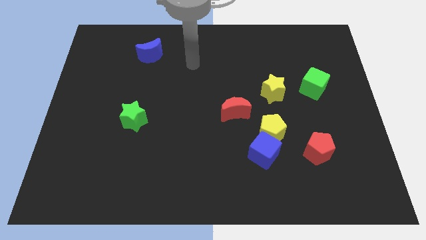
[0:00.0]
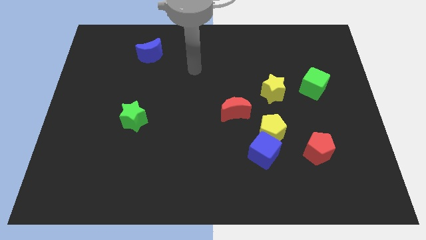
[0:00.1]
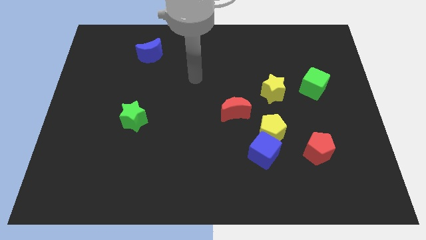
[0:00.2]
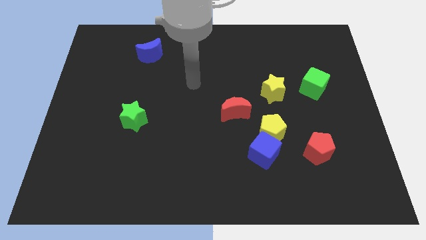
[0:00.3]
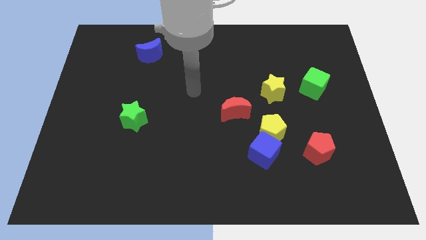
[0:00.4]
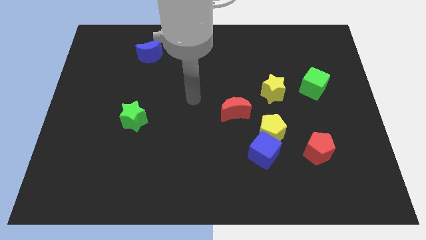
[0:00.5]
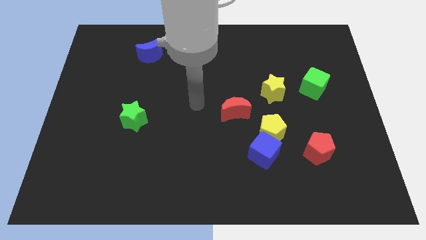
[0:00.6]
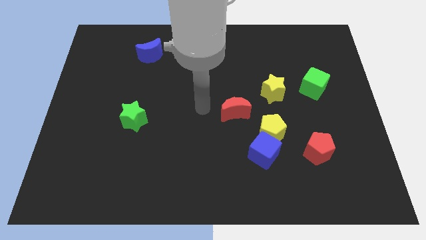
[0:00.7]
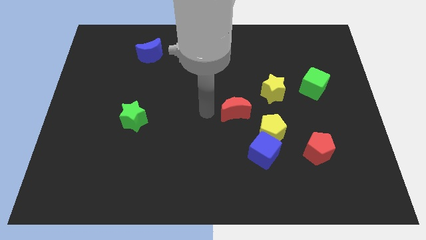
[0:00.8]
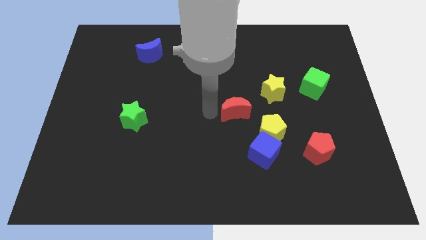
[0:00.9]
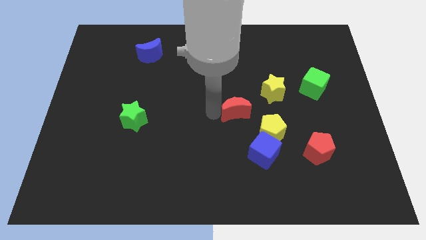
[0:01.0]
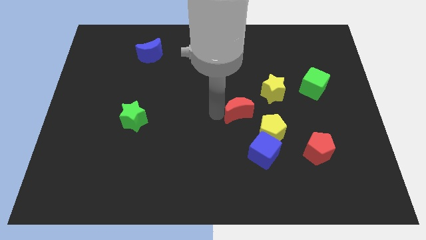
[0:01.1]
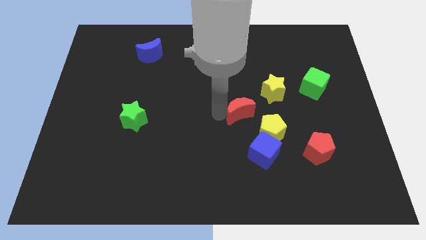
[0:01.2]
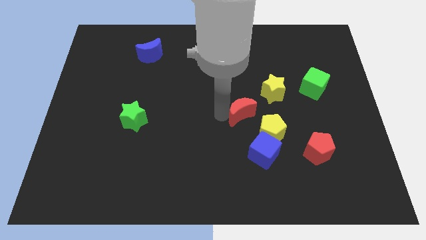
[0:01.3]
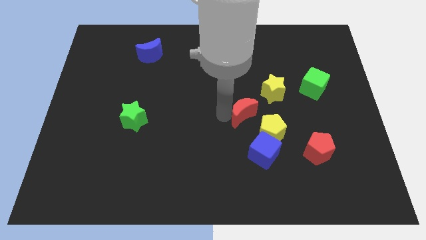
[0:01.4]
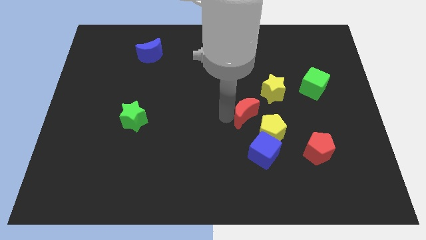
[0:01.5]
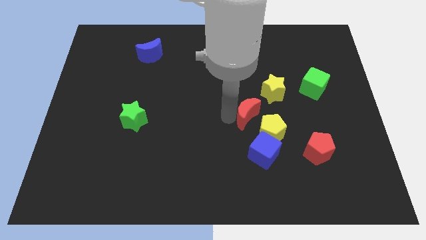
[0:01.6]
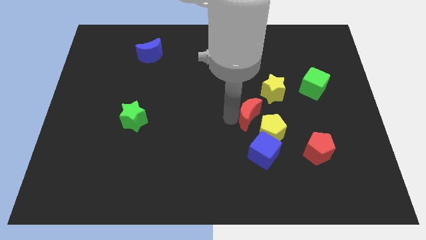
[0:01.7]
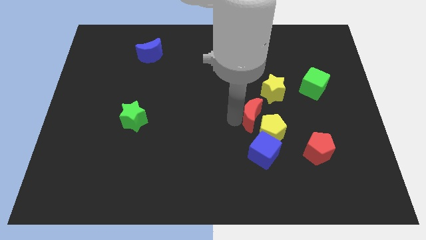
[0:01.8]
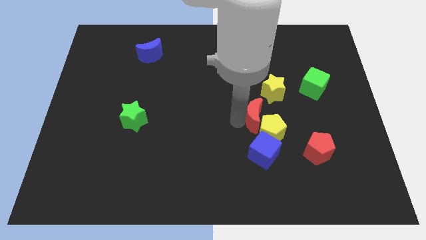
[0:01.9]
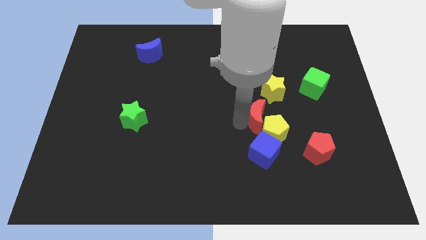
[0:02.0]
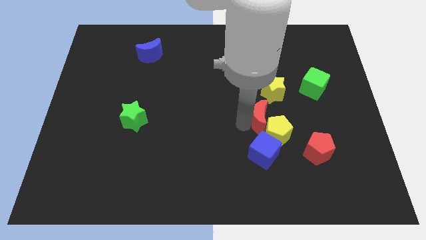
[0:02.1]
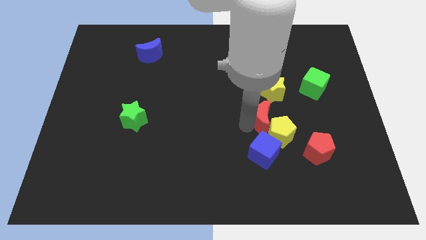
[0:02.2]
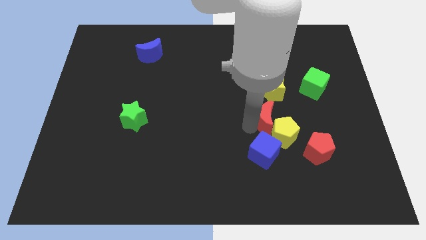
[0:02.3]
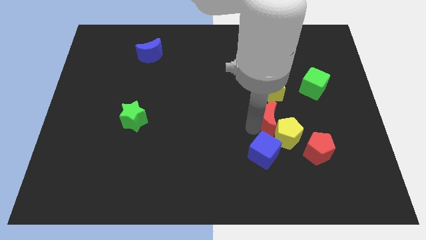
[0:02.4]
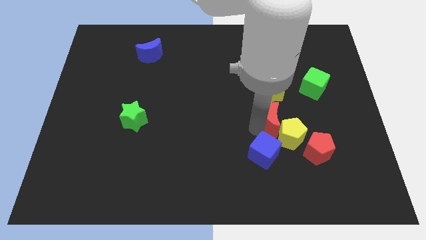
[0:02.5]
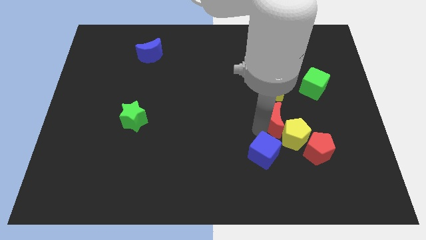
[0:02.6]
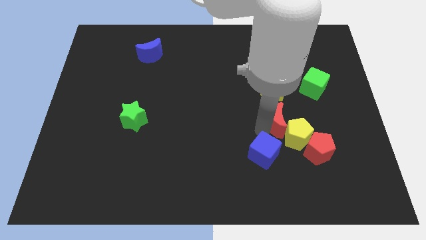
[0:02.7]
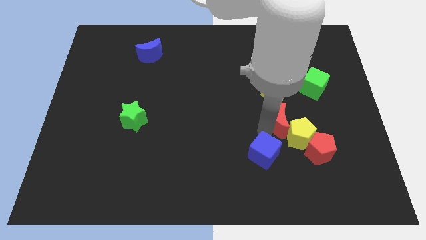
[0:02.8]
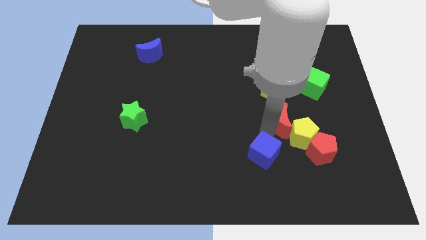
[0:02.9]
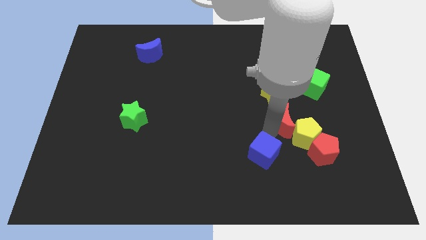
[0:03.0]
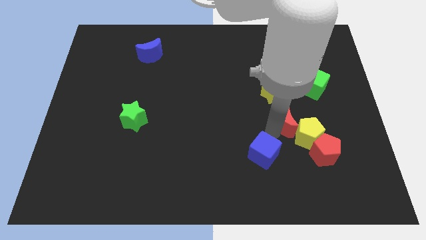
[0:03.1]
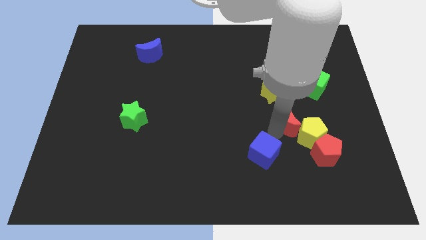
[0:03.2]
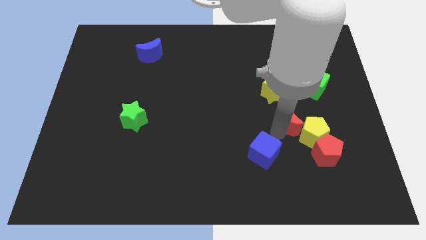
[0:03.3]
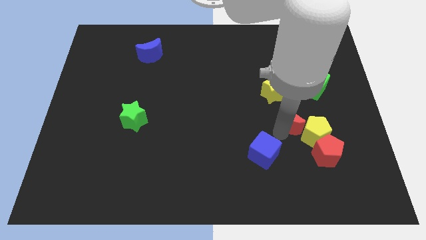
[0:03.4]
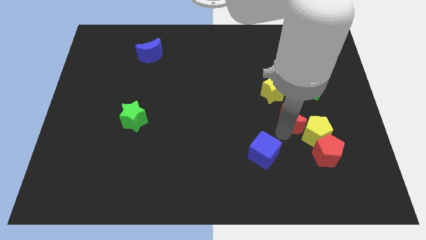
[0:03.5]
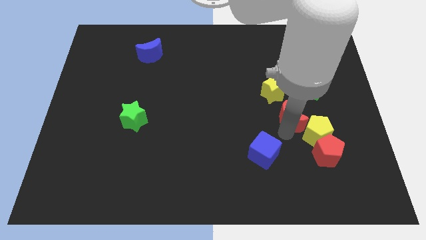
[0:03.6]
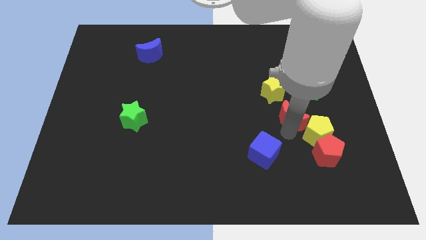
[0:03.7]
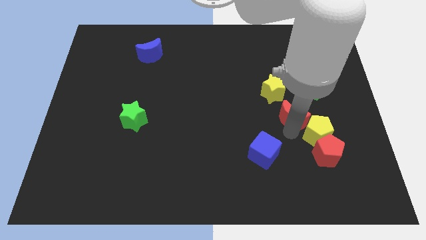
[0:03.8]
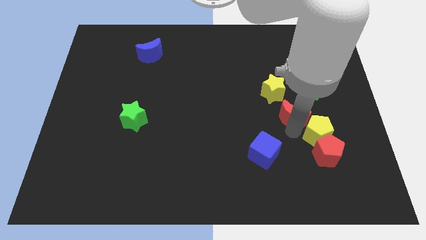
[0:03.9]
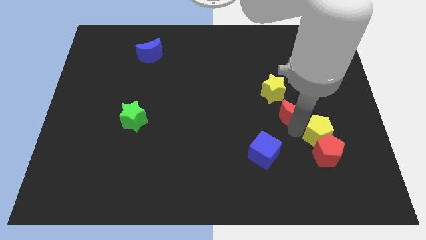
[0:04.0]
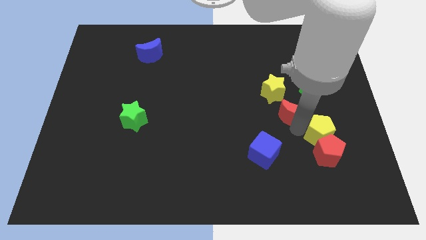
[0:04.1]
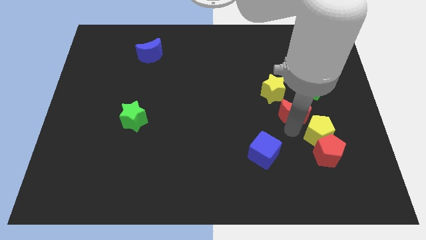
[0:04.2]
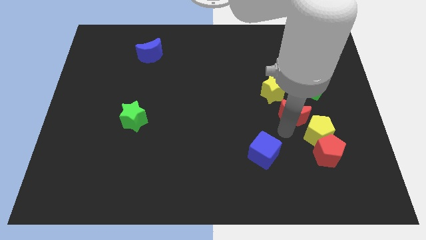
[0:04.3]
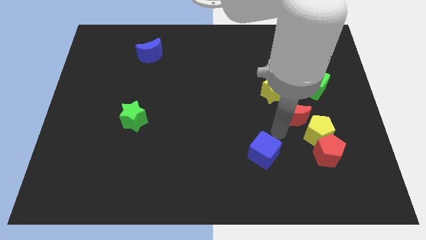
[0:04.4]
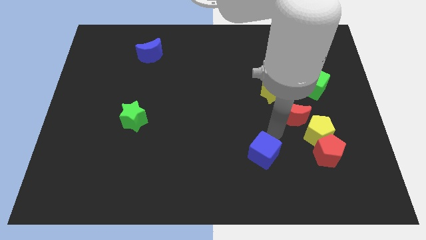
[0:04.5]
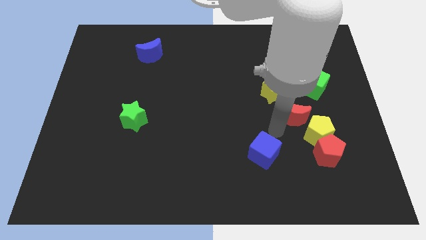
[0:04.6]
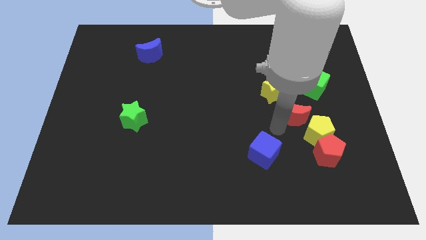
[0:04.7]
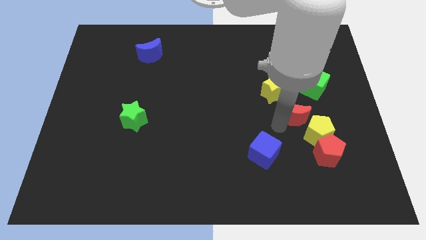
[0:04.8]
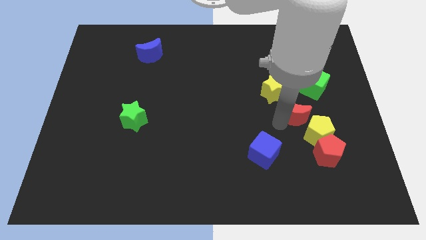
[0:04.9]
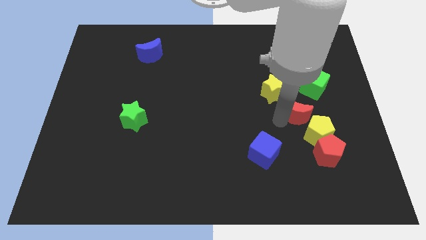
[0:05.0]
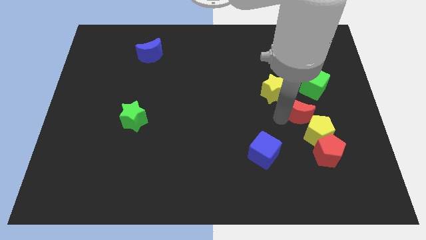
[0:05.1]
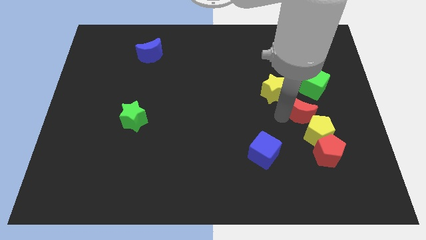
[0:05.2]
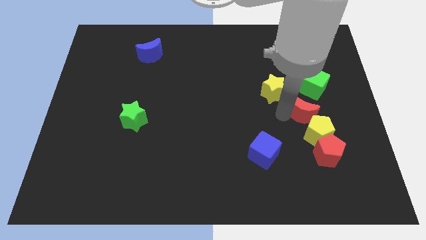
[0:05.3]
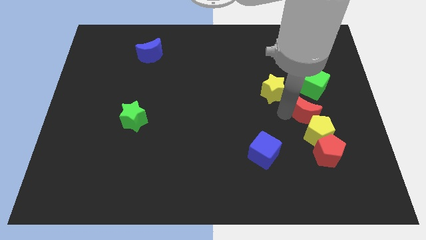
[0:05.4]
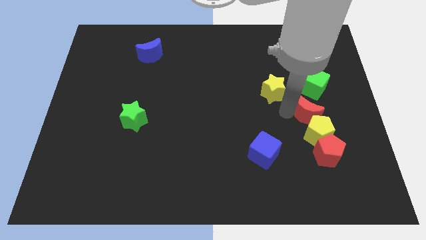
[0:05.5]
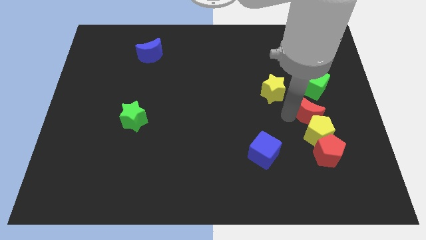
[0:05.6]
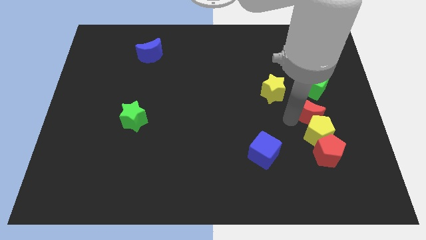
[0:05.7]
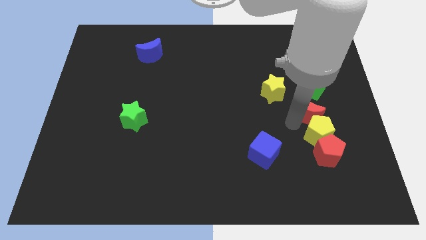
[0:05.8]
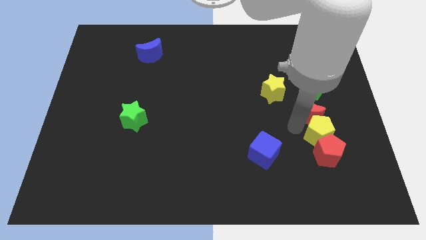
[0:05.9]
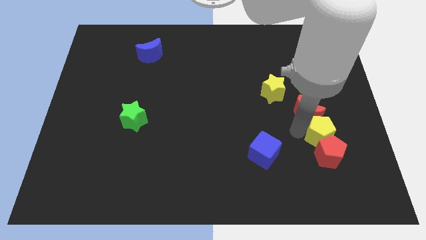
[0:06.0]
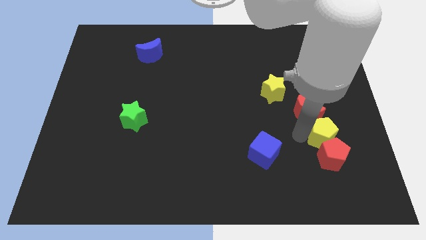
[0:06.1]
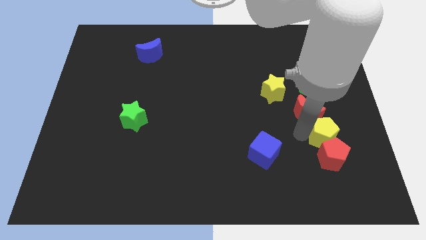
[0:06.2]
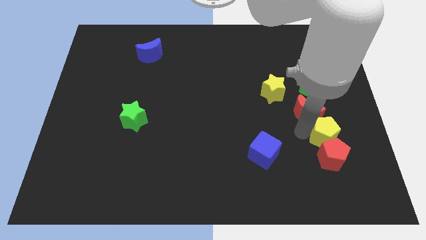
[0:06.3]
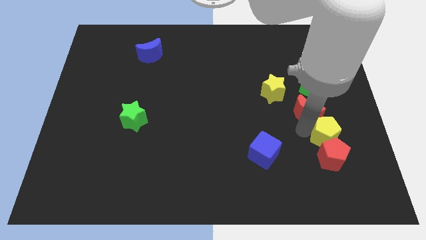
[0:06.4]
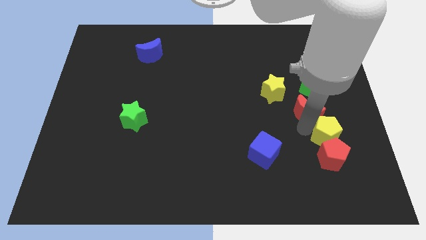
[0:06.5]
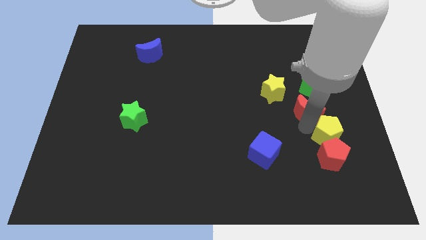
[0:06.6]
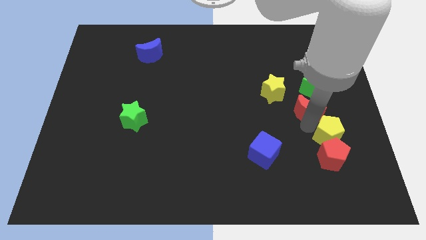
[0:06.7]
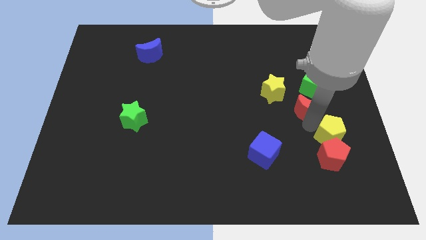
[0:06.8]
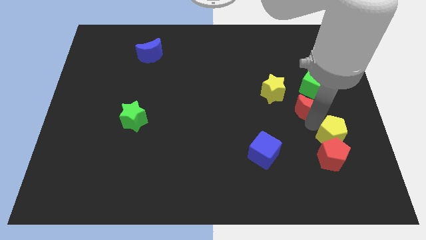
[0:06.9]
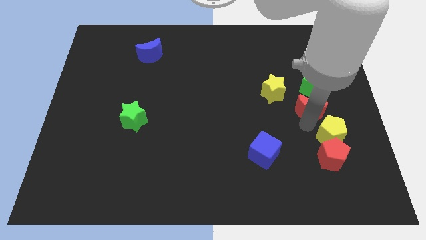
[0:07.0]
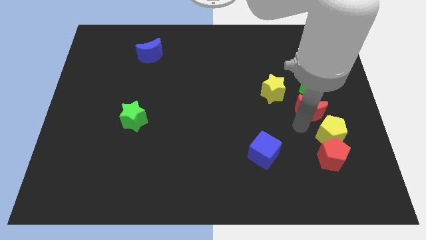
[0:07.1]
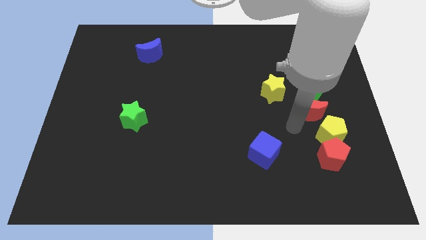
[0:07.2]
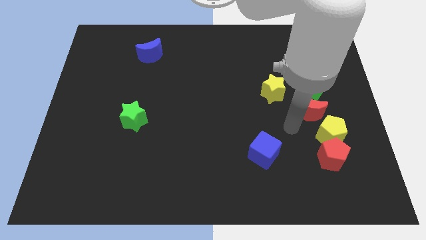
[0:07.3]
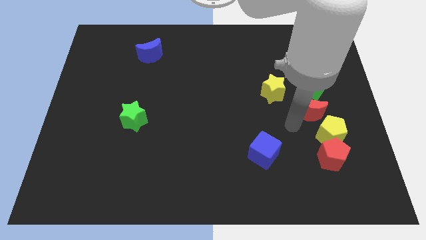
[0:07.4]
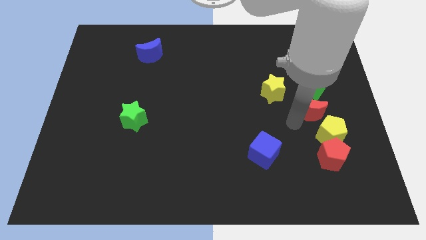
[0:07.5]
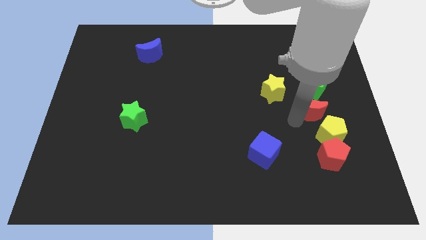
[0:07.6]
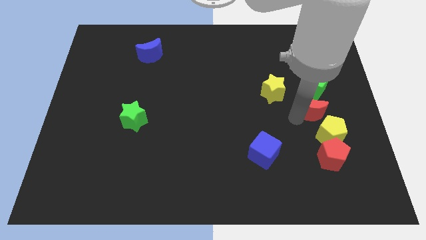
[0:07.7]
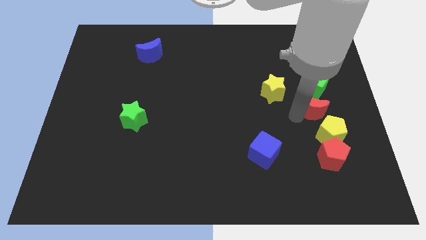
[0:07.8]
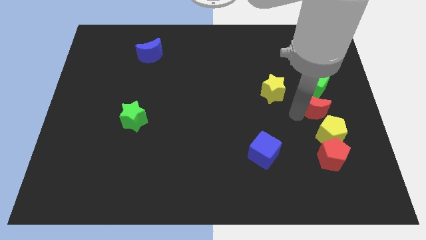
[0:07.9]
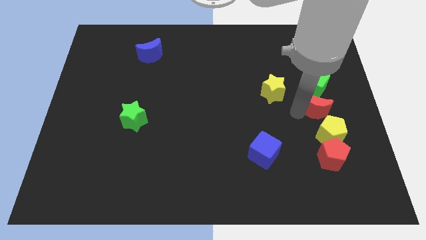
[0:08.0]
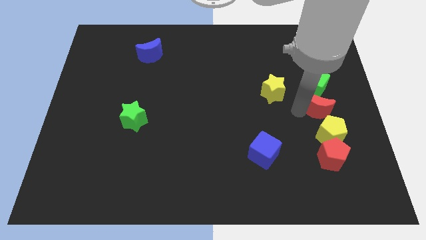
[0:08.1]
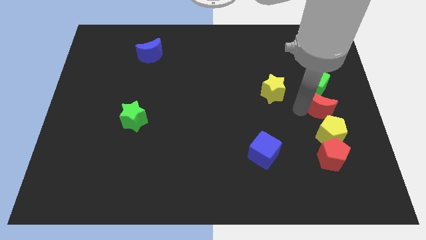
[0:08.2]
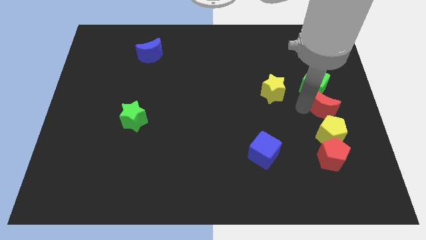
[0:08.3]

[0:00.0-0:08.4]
move the red moon to the right side
